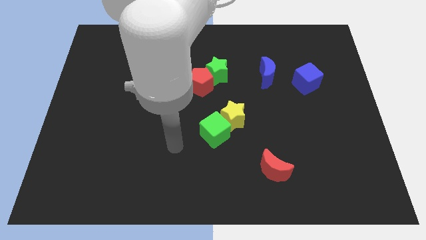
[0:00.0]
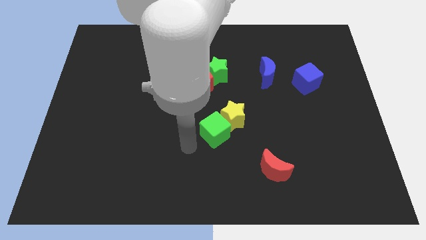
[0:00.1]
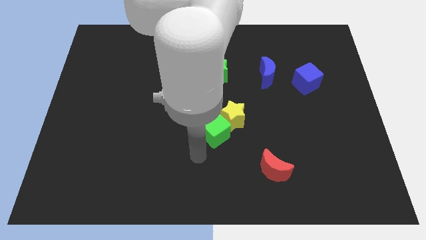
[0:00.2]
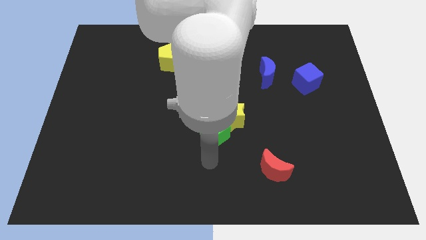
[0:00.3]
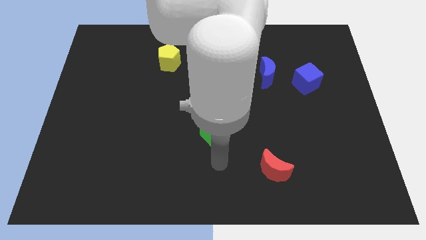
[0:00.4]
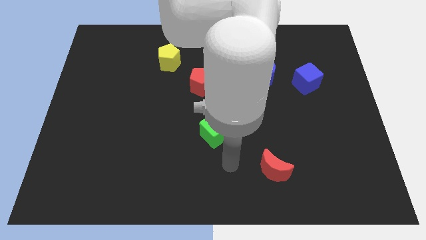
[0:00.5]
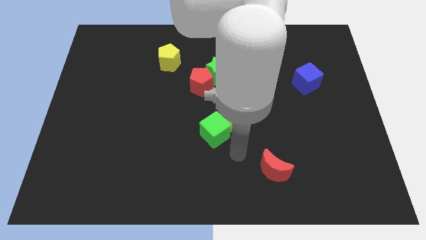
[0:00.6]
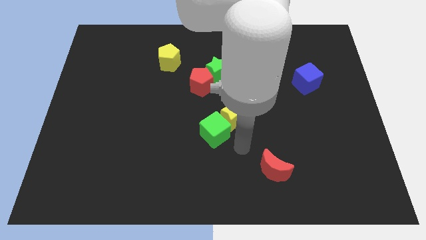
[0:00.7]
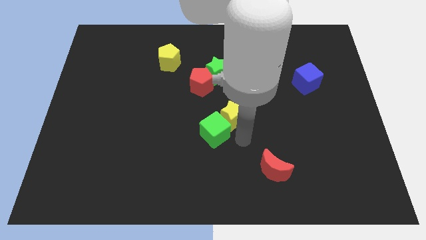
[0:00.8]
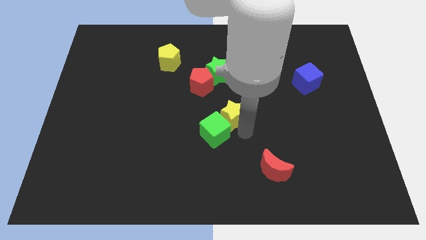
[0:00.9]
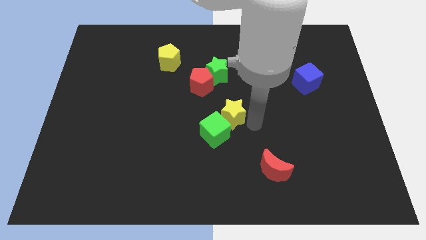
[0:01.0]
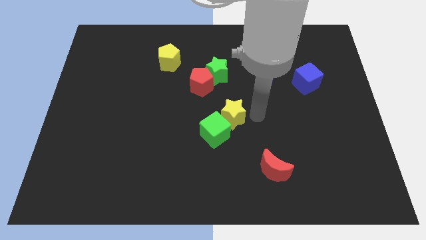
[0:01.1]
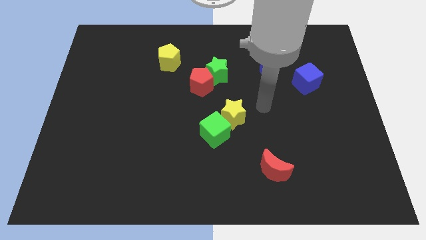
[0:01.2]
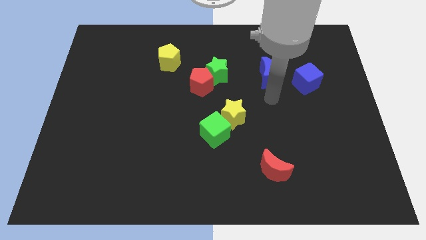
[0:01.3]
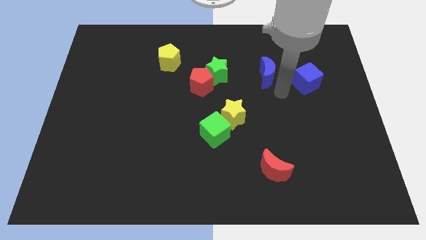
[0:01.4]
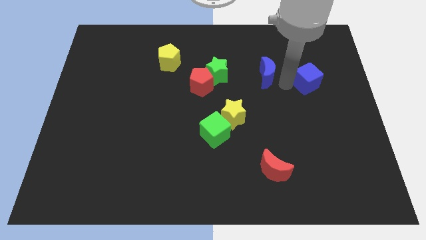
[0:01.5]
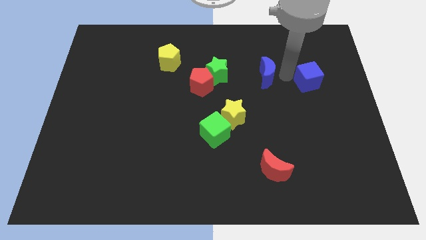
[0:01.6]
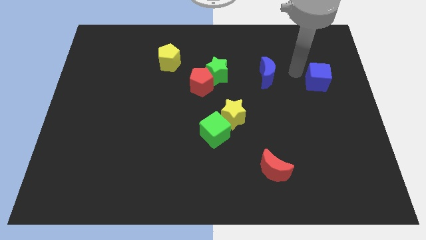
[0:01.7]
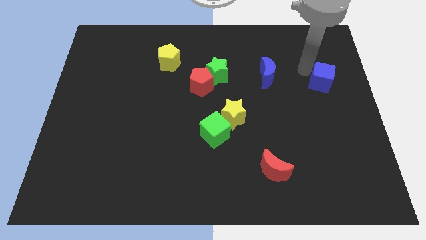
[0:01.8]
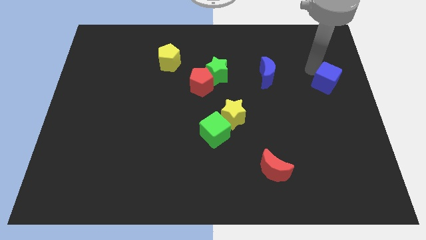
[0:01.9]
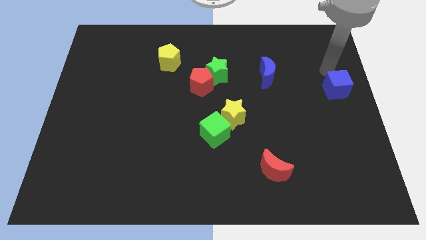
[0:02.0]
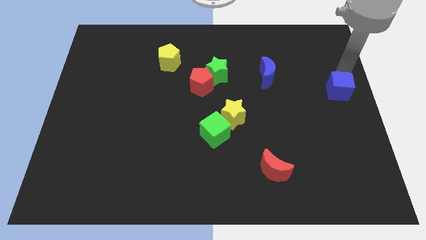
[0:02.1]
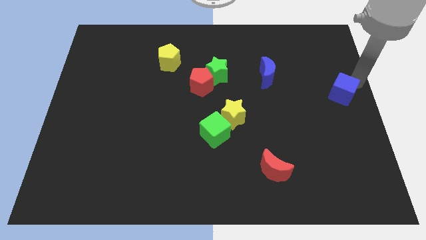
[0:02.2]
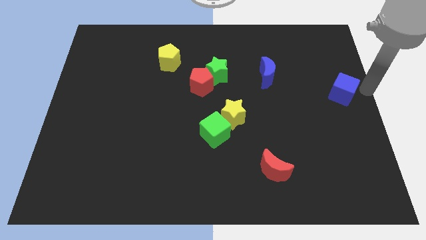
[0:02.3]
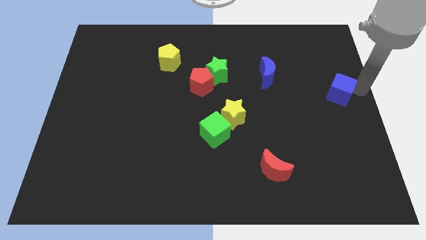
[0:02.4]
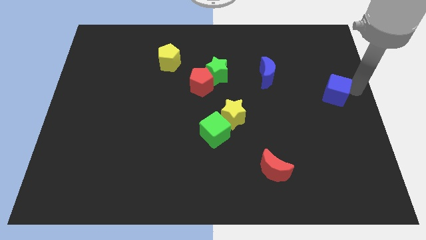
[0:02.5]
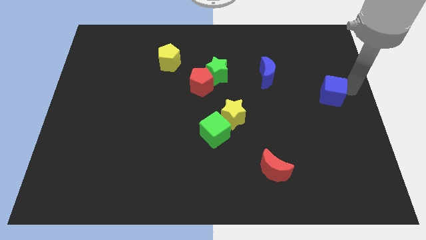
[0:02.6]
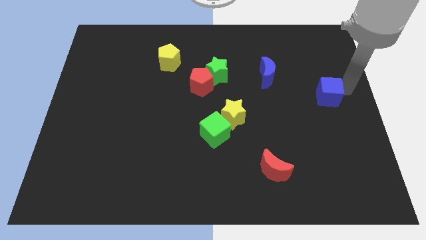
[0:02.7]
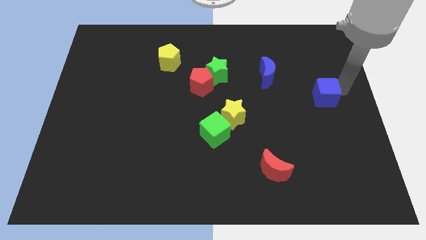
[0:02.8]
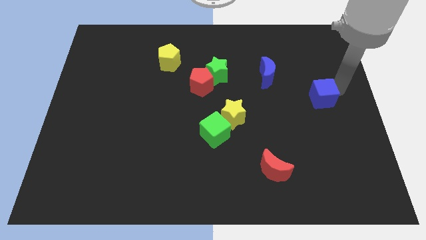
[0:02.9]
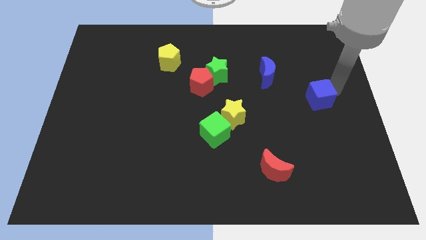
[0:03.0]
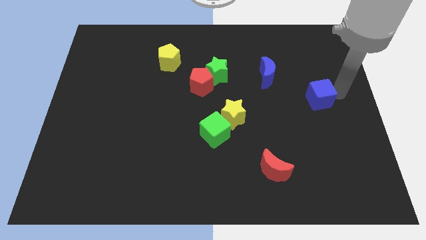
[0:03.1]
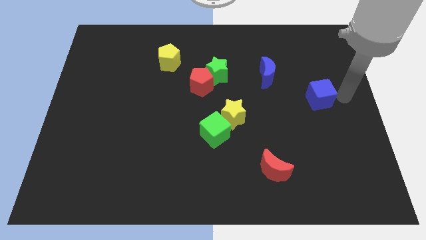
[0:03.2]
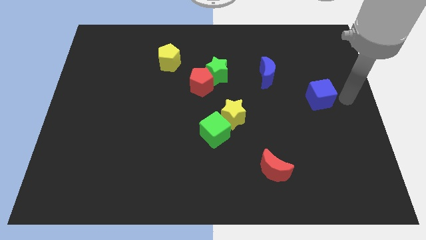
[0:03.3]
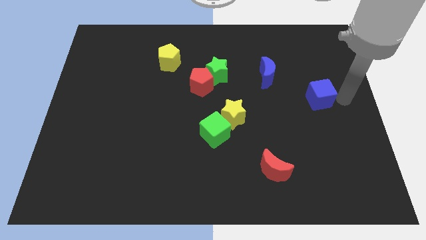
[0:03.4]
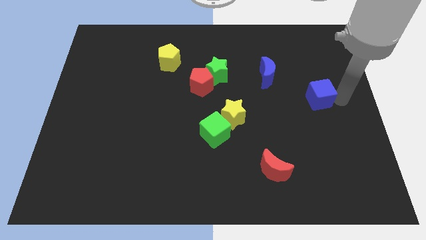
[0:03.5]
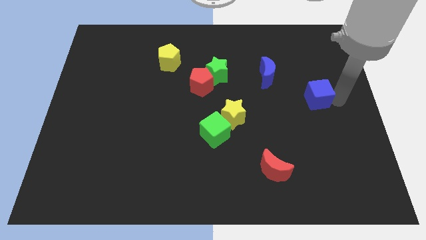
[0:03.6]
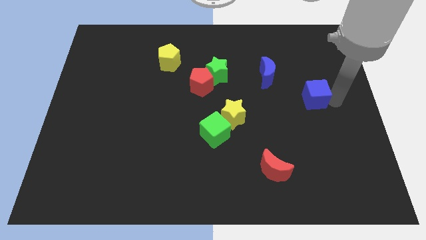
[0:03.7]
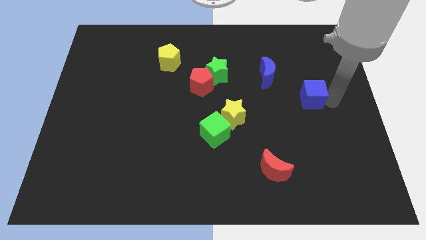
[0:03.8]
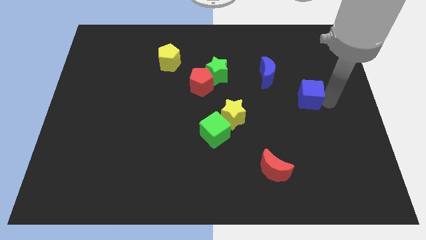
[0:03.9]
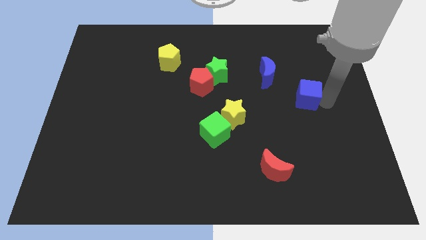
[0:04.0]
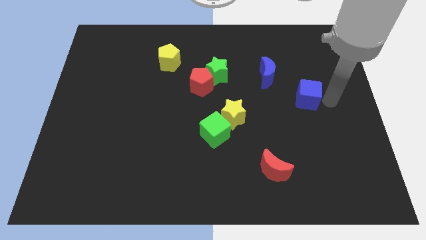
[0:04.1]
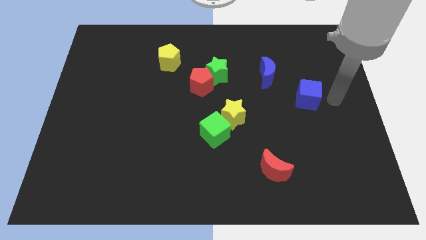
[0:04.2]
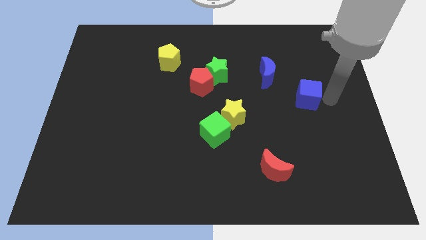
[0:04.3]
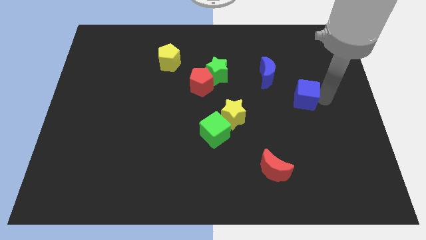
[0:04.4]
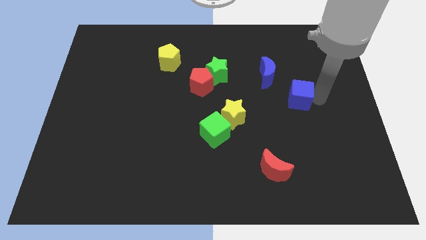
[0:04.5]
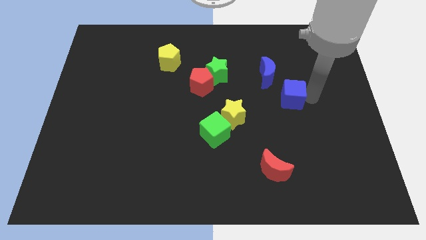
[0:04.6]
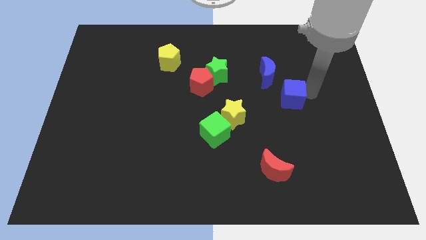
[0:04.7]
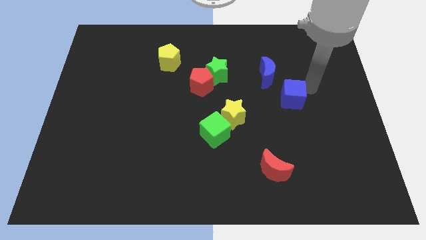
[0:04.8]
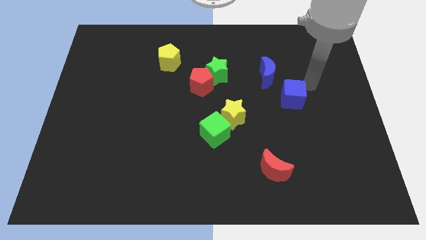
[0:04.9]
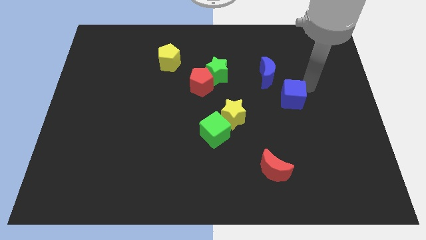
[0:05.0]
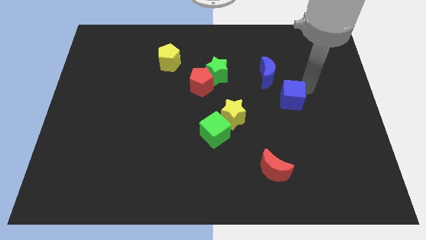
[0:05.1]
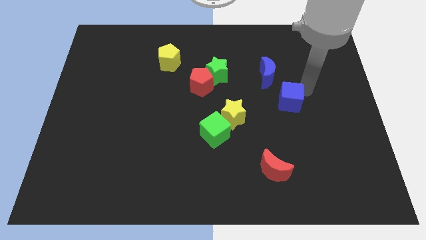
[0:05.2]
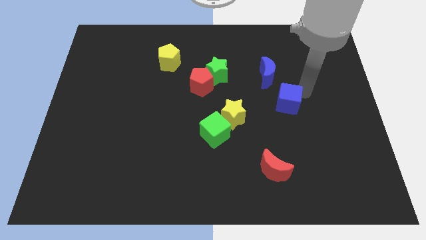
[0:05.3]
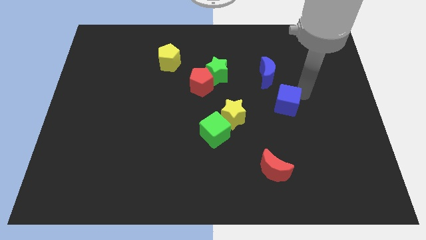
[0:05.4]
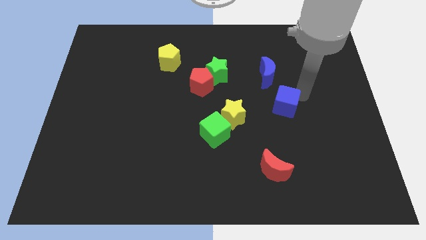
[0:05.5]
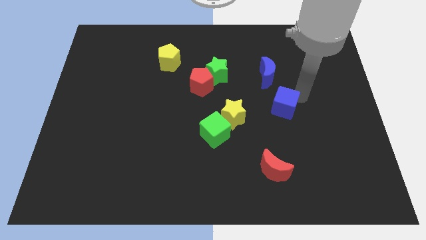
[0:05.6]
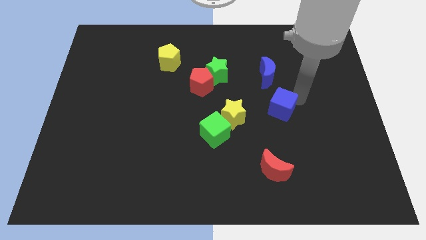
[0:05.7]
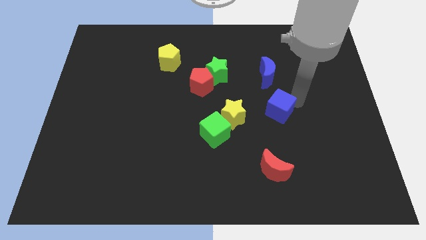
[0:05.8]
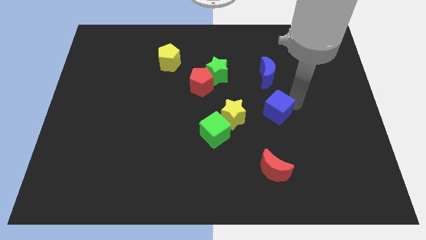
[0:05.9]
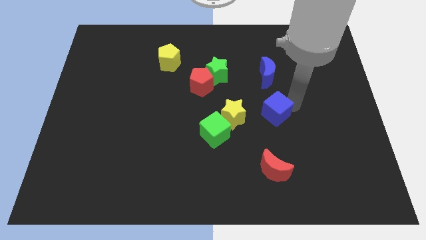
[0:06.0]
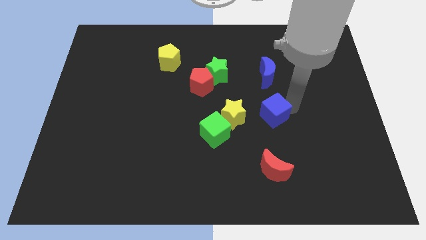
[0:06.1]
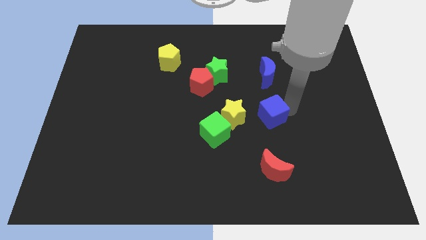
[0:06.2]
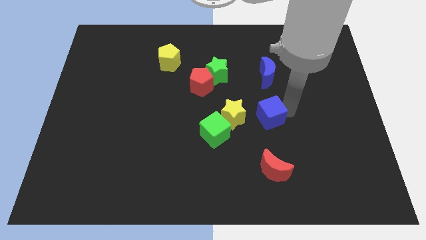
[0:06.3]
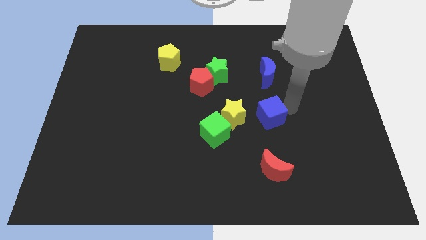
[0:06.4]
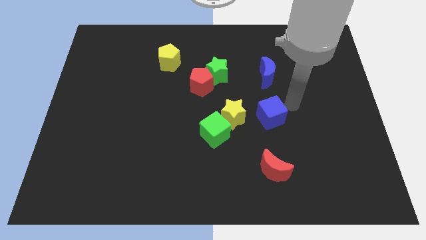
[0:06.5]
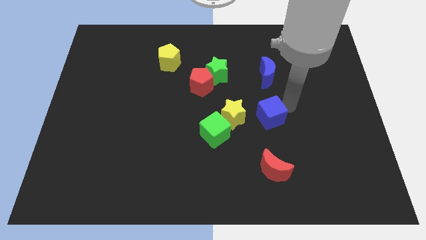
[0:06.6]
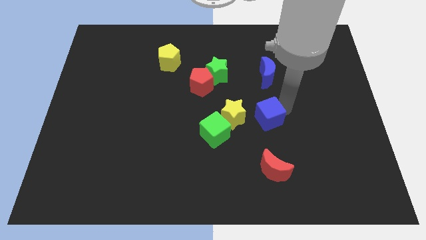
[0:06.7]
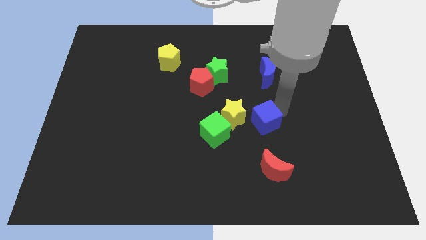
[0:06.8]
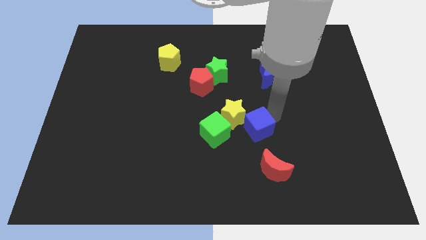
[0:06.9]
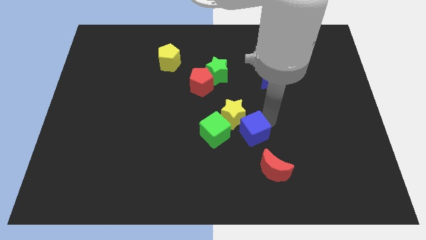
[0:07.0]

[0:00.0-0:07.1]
slide the blue cube down and then left

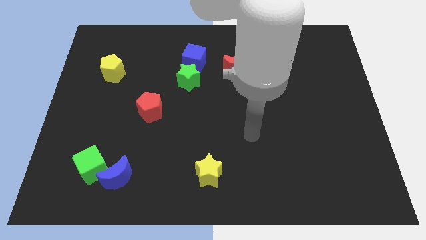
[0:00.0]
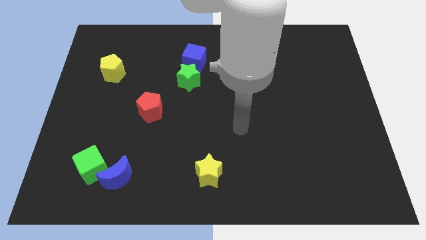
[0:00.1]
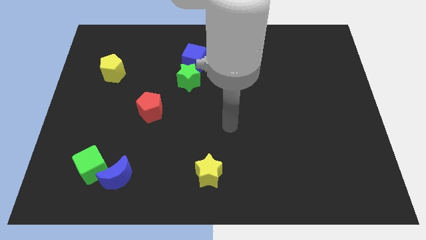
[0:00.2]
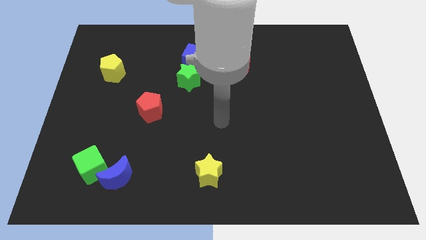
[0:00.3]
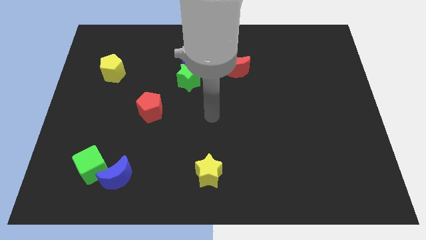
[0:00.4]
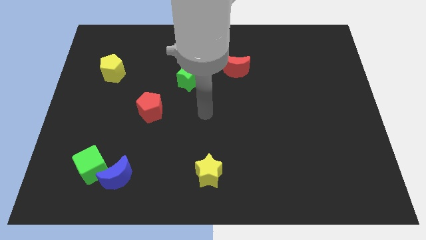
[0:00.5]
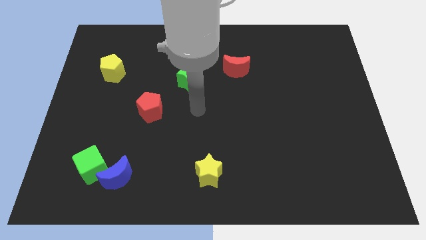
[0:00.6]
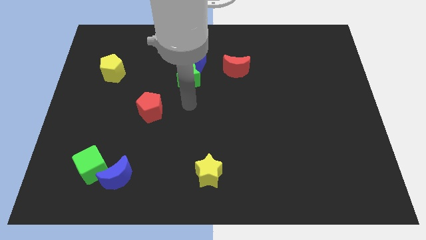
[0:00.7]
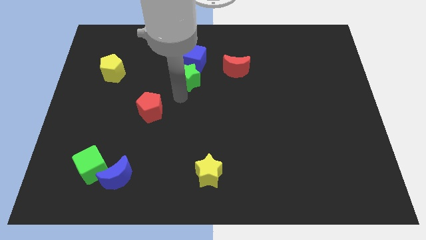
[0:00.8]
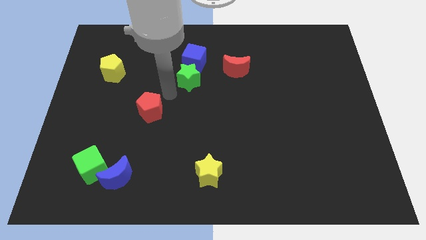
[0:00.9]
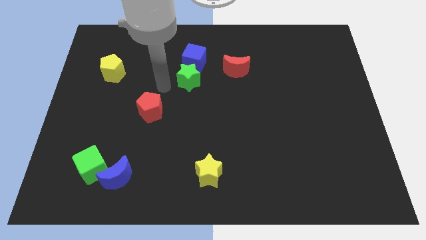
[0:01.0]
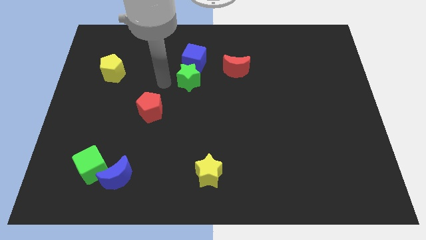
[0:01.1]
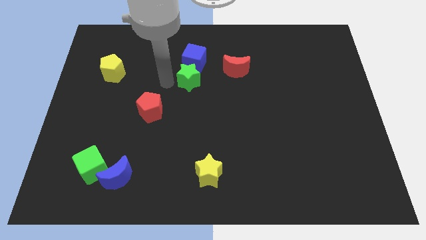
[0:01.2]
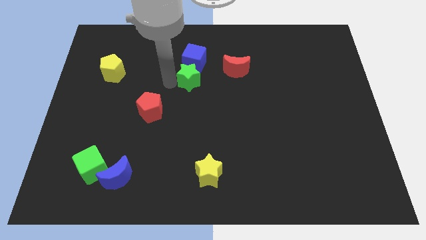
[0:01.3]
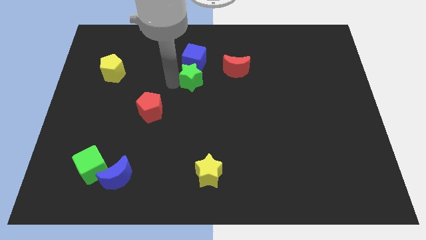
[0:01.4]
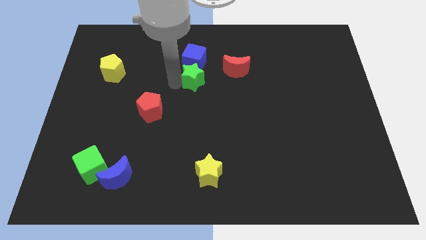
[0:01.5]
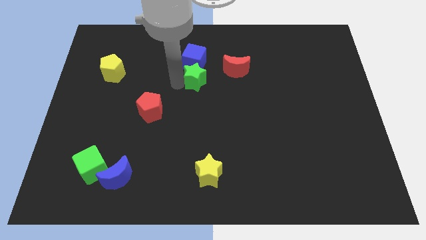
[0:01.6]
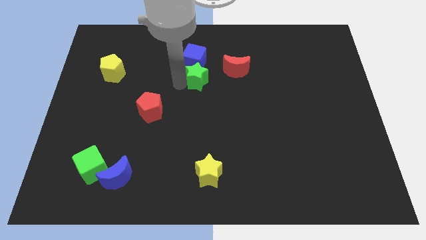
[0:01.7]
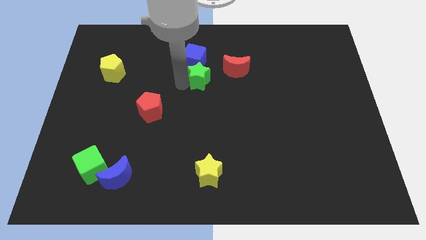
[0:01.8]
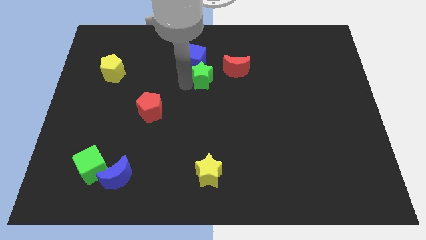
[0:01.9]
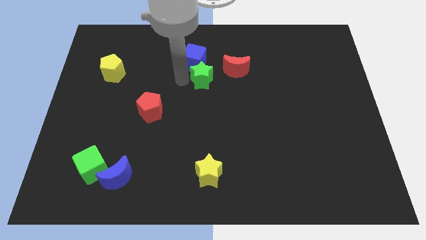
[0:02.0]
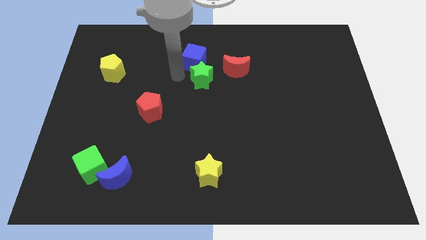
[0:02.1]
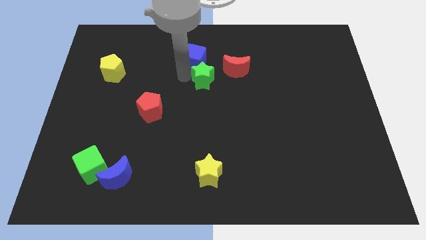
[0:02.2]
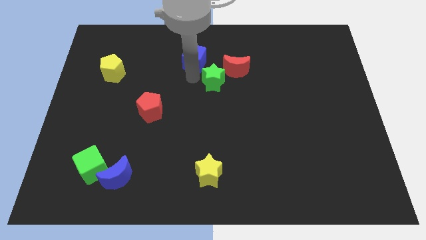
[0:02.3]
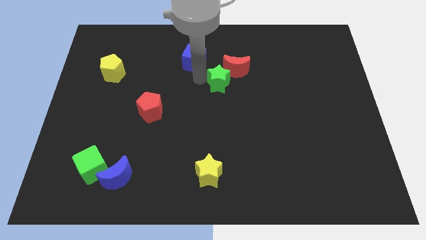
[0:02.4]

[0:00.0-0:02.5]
slide the green star to the right a little
